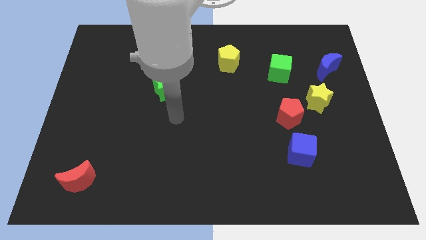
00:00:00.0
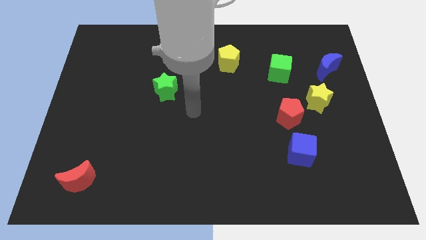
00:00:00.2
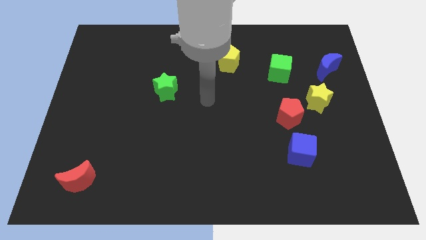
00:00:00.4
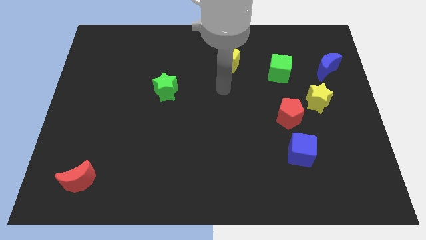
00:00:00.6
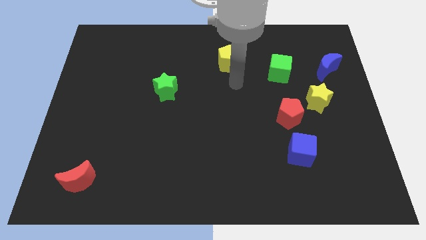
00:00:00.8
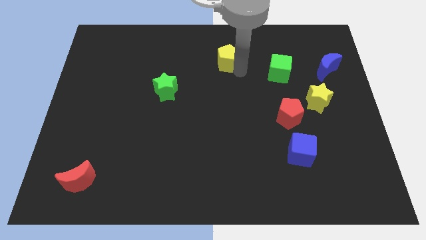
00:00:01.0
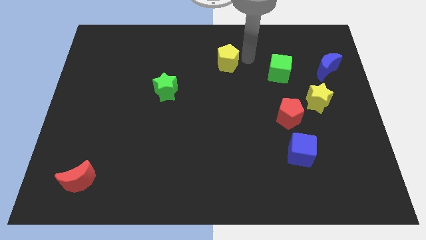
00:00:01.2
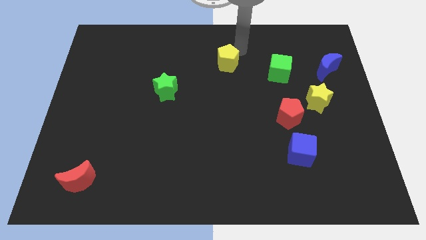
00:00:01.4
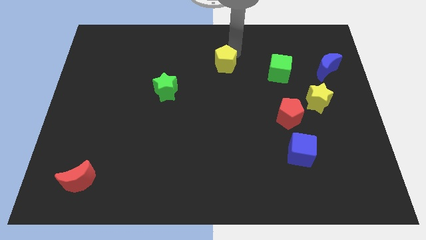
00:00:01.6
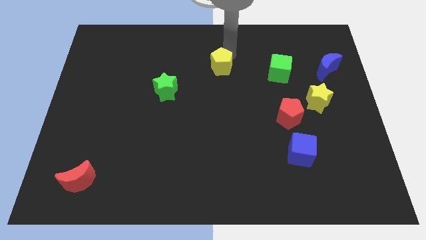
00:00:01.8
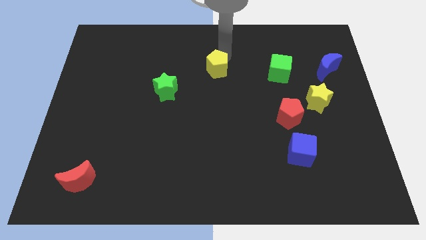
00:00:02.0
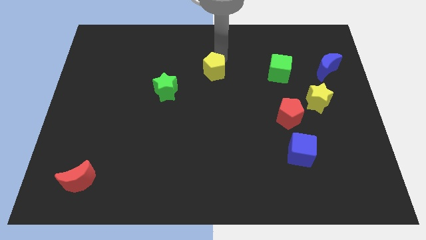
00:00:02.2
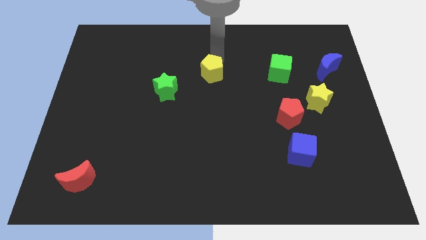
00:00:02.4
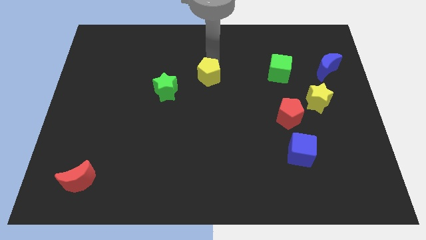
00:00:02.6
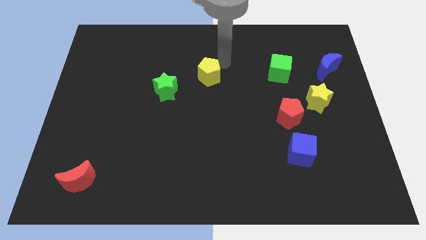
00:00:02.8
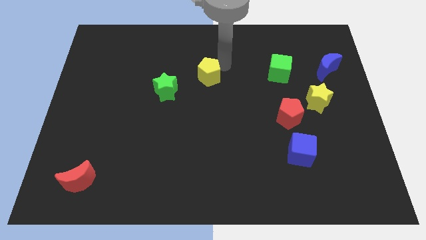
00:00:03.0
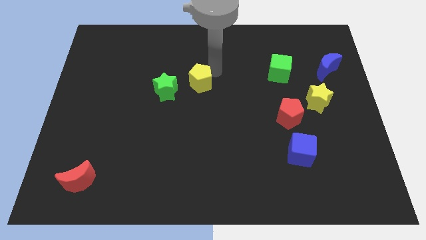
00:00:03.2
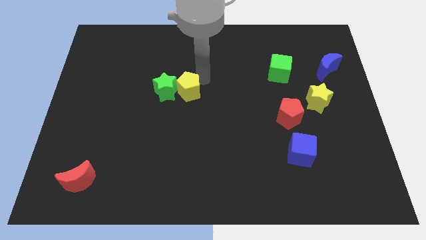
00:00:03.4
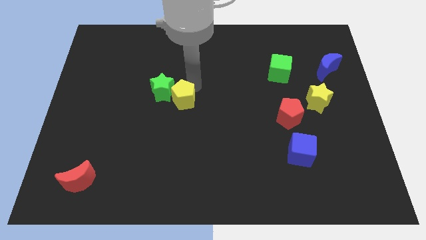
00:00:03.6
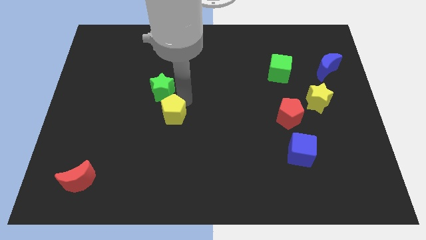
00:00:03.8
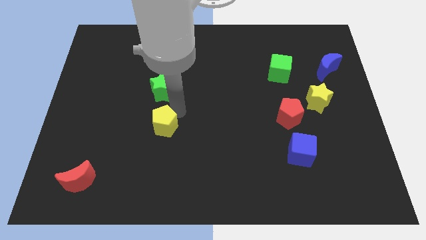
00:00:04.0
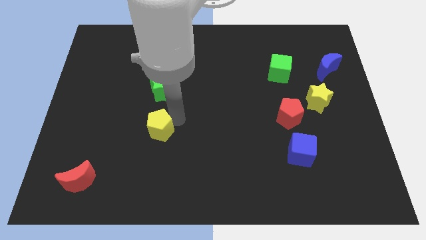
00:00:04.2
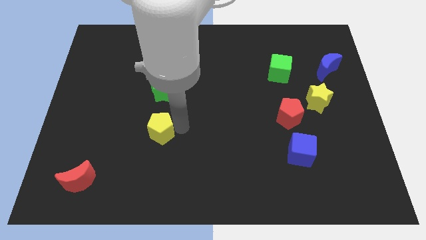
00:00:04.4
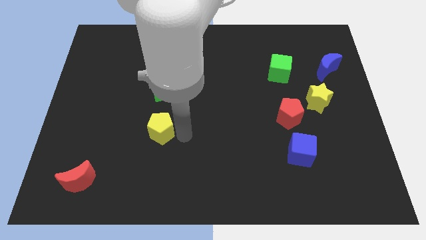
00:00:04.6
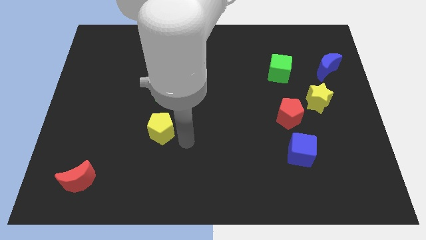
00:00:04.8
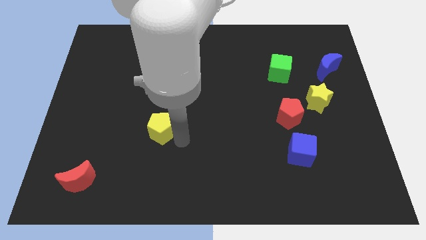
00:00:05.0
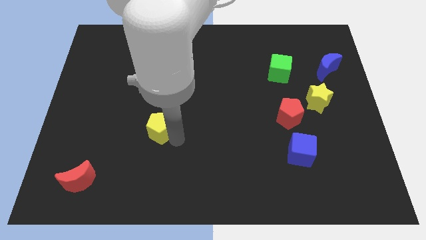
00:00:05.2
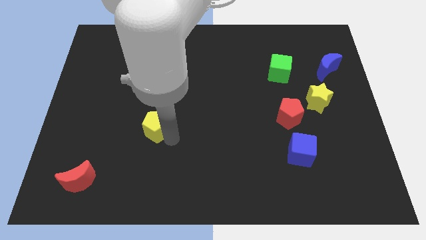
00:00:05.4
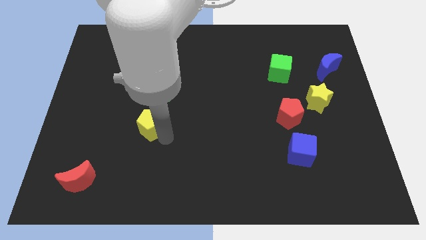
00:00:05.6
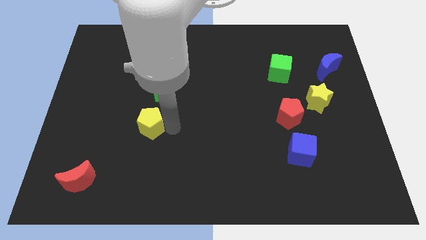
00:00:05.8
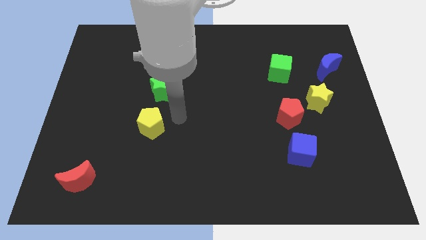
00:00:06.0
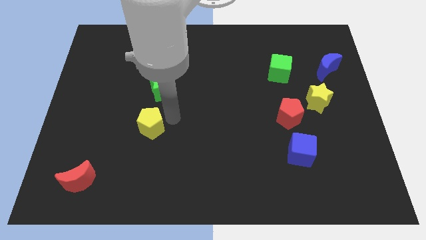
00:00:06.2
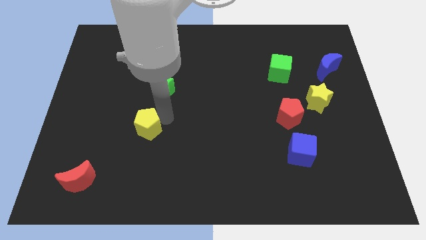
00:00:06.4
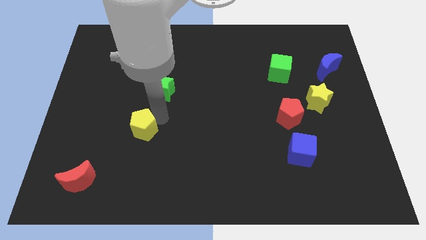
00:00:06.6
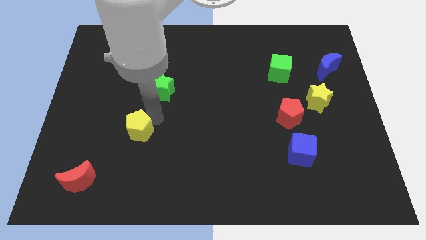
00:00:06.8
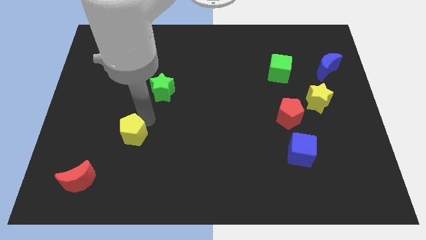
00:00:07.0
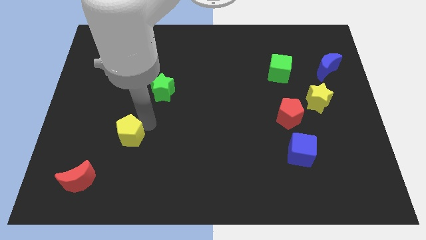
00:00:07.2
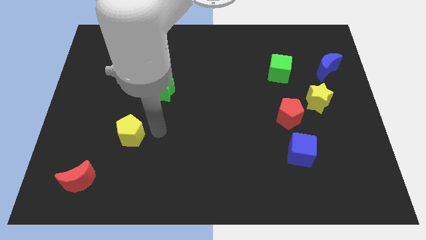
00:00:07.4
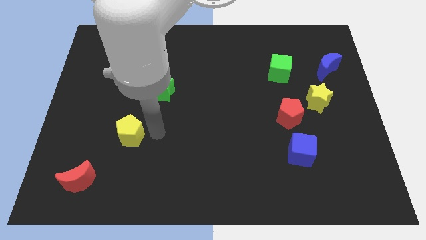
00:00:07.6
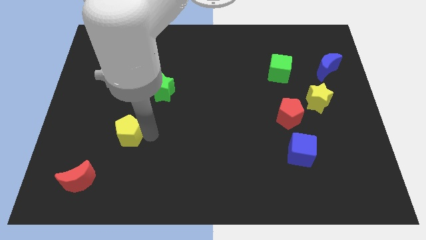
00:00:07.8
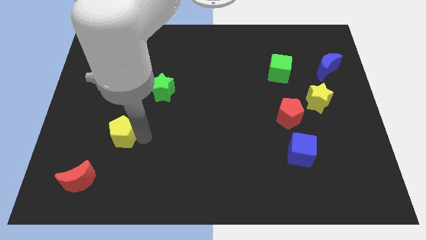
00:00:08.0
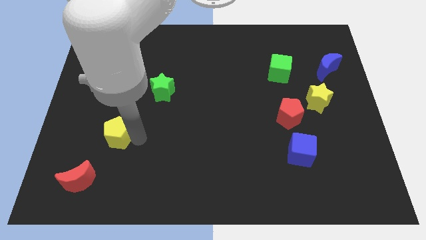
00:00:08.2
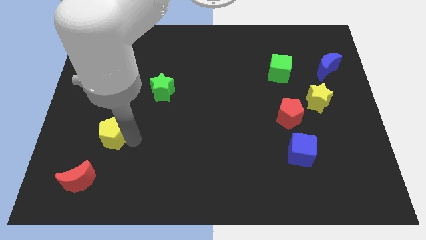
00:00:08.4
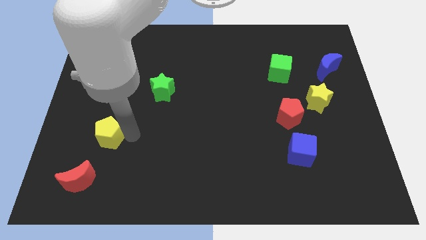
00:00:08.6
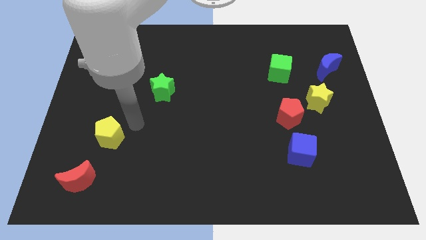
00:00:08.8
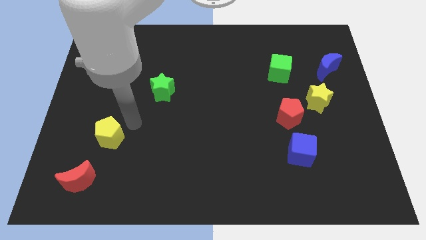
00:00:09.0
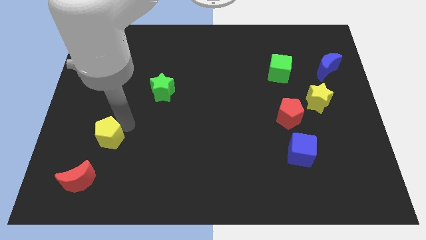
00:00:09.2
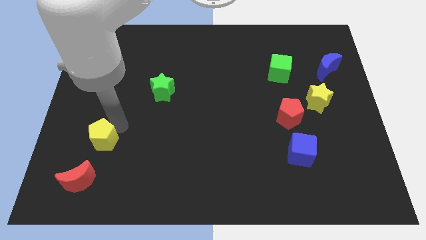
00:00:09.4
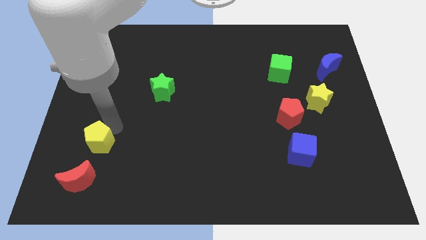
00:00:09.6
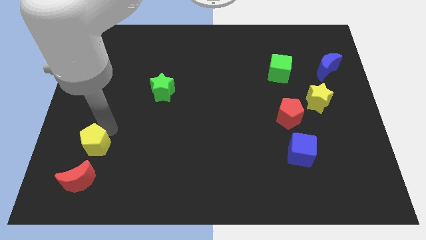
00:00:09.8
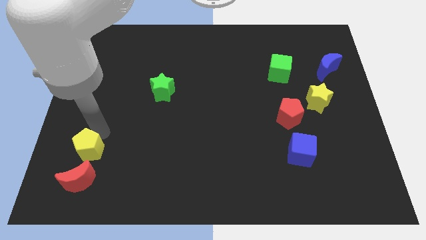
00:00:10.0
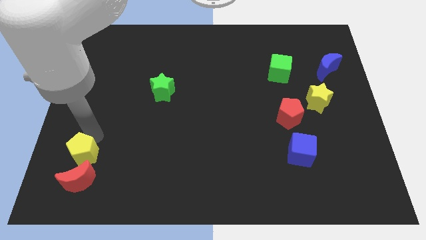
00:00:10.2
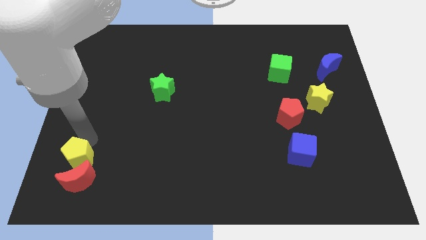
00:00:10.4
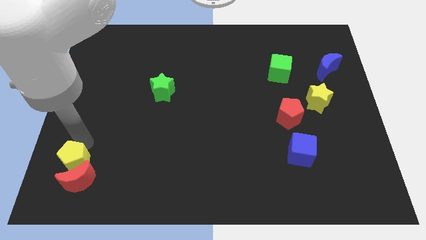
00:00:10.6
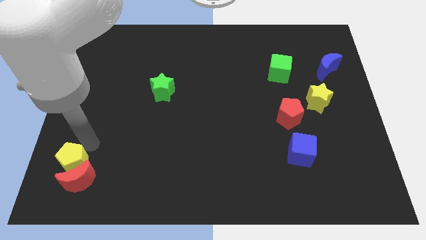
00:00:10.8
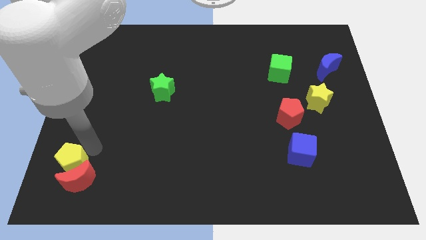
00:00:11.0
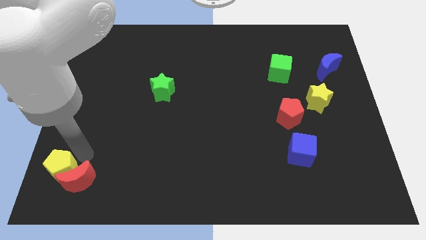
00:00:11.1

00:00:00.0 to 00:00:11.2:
move the yellow pentagon to the bottom left of the board
